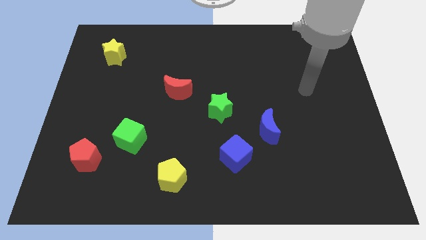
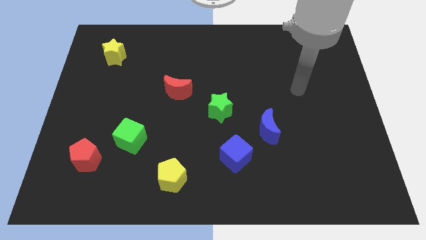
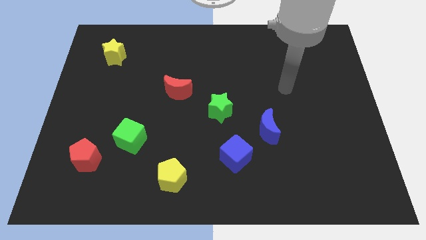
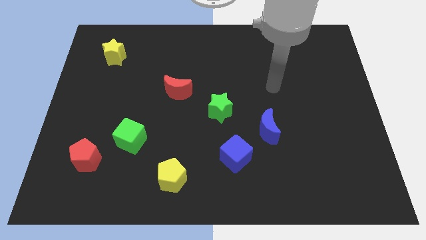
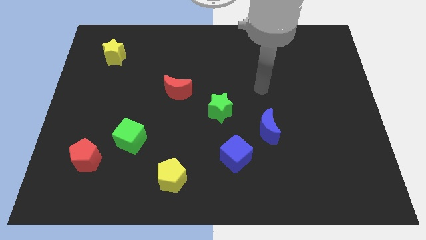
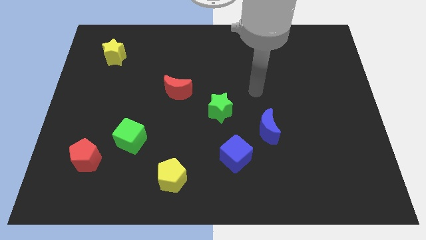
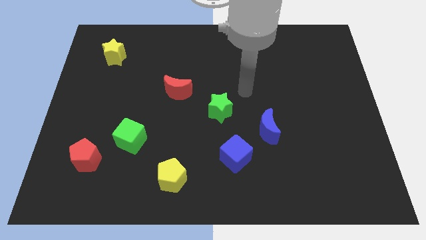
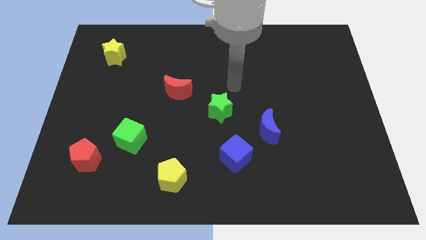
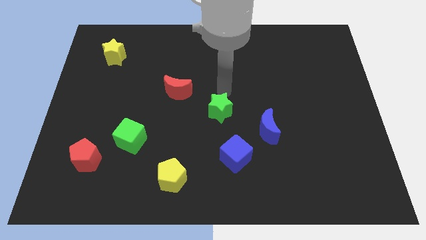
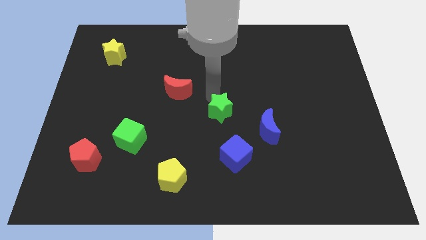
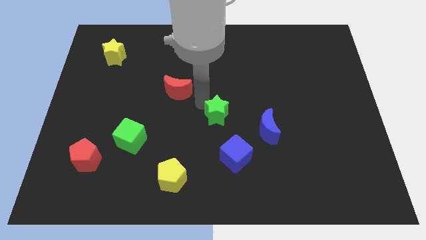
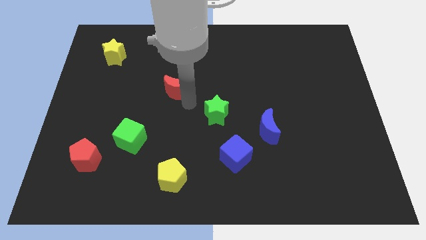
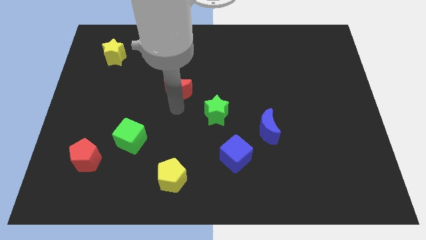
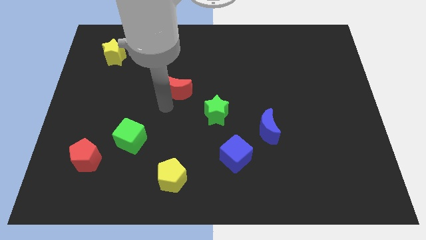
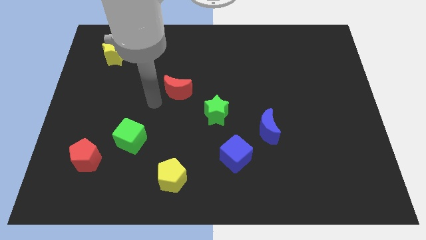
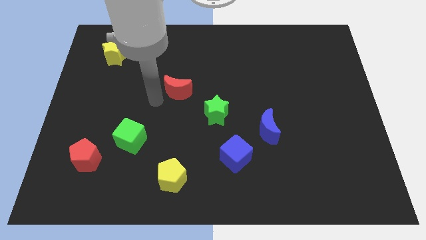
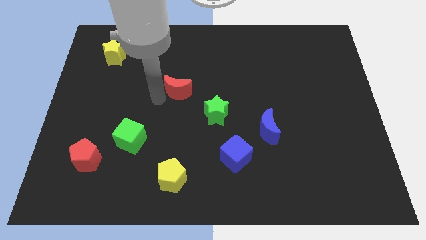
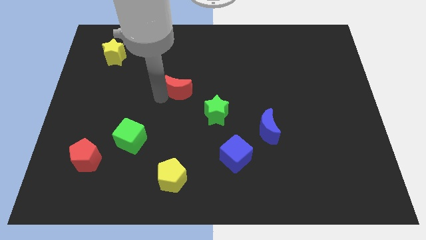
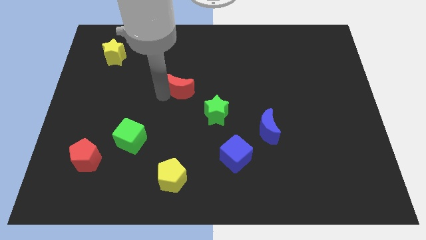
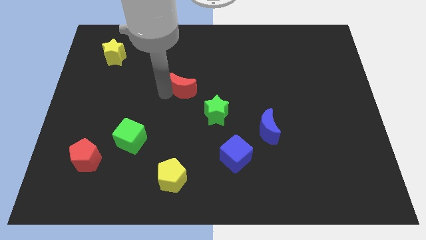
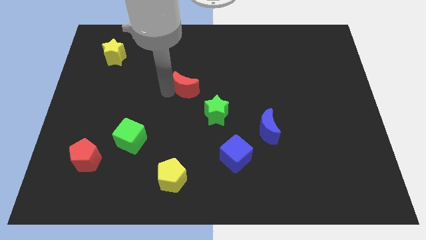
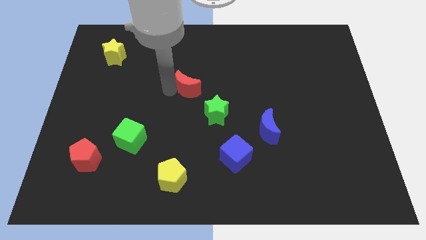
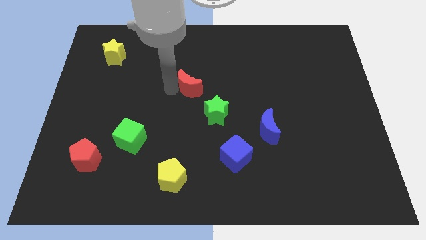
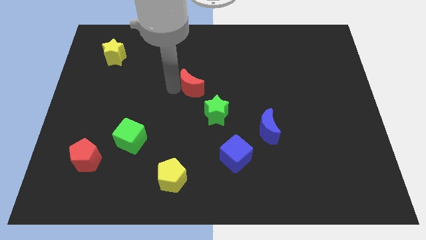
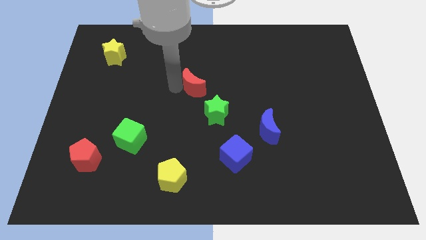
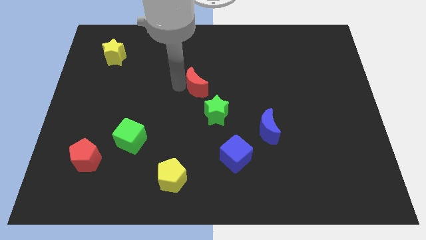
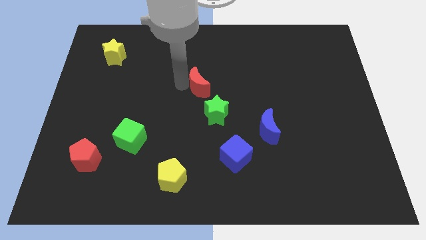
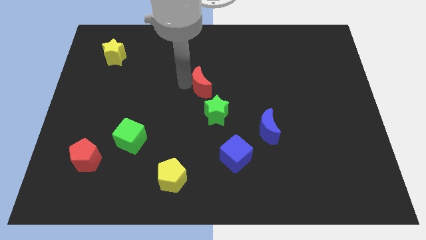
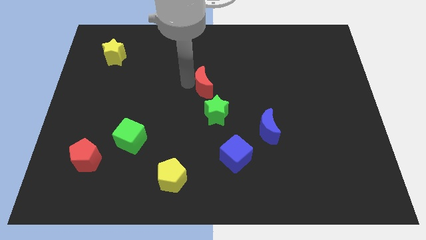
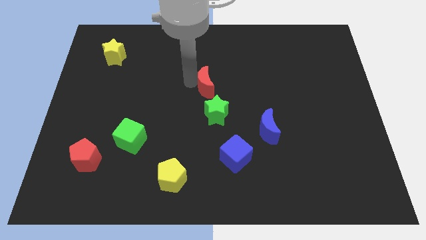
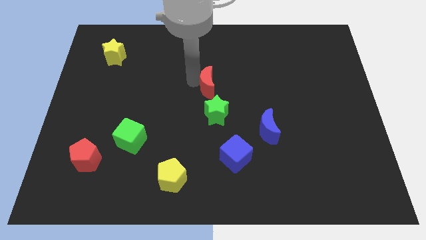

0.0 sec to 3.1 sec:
push the red moon right a little bit

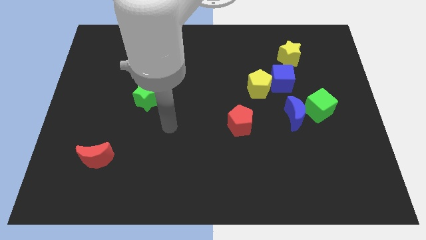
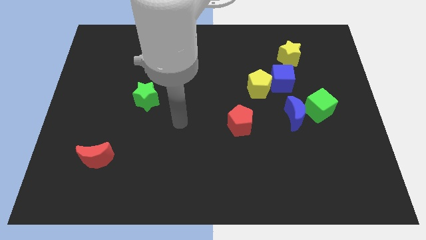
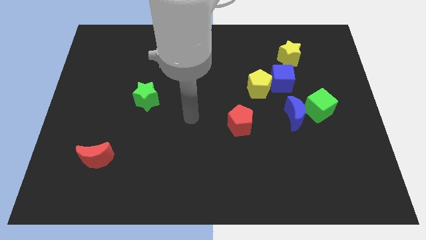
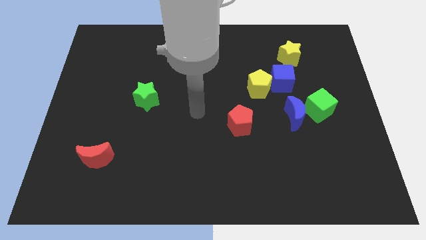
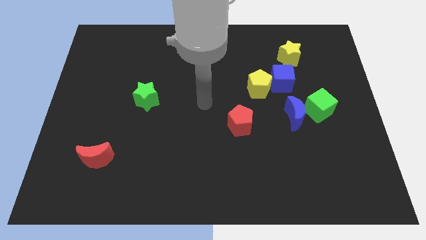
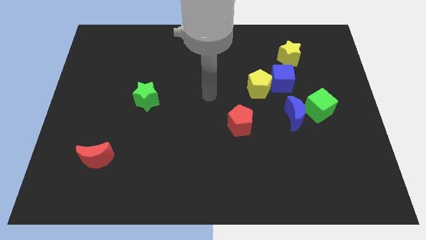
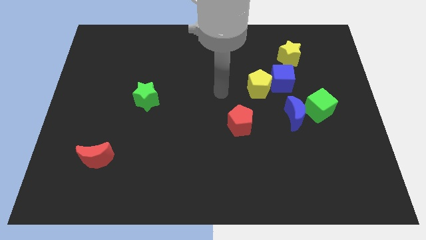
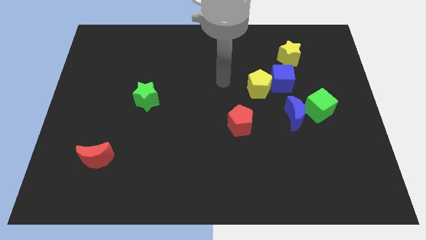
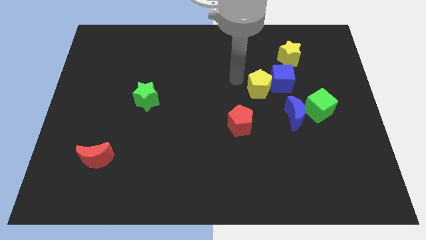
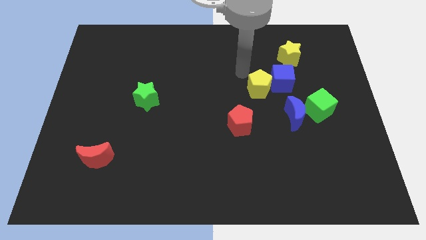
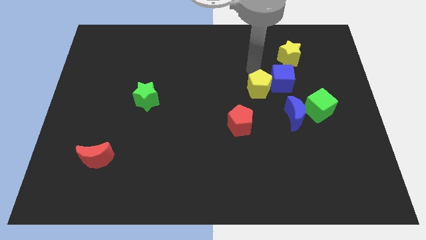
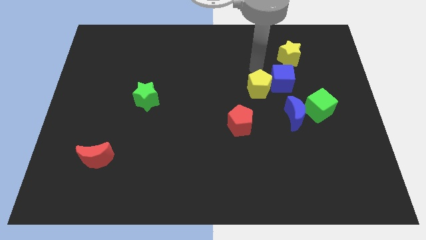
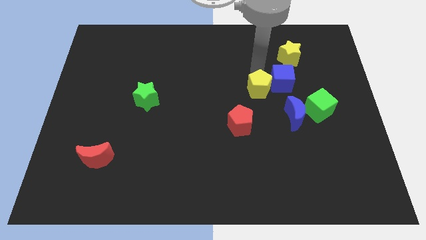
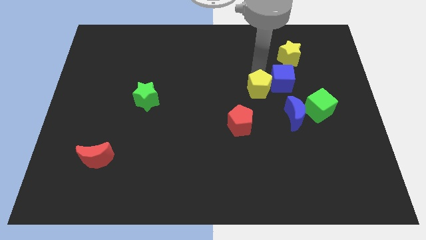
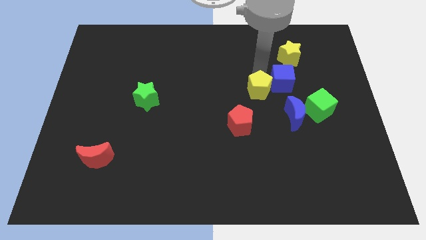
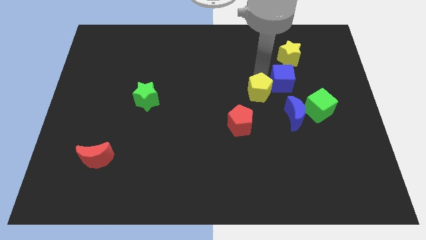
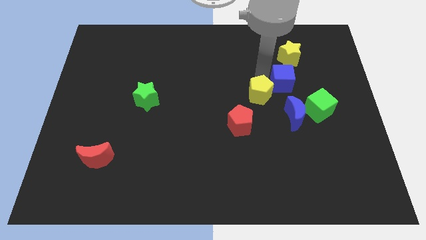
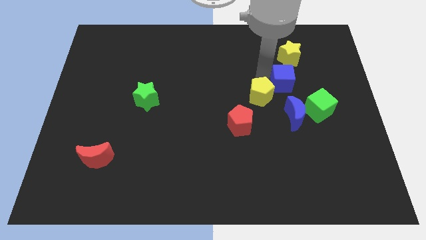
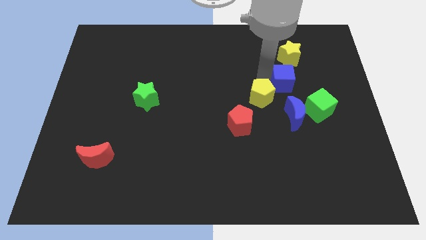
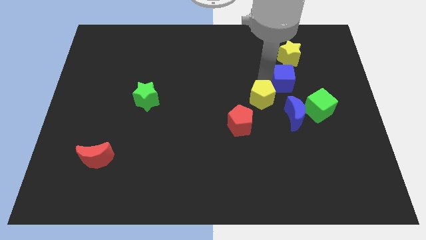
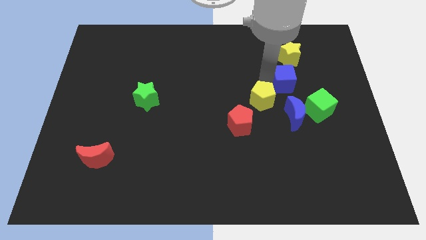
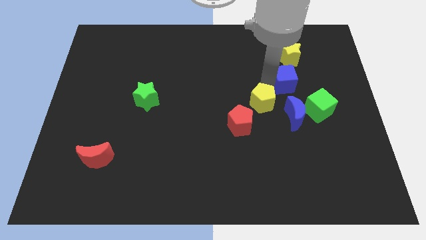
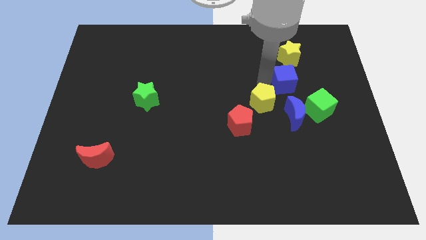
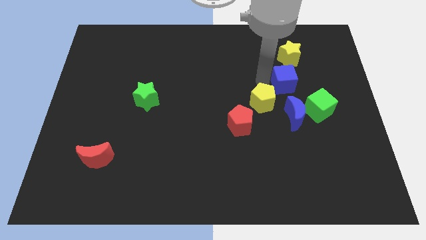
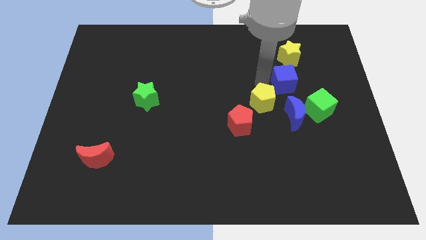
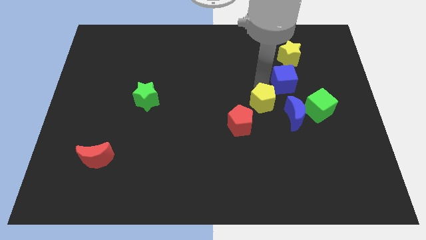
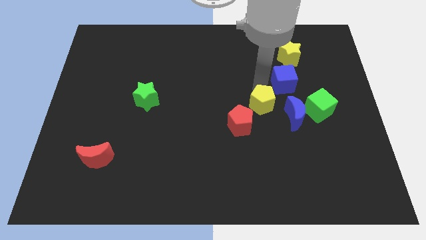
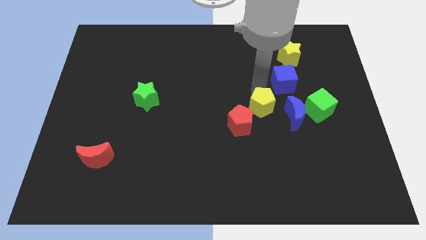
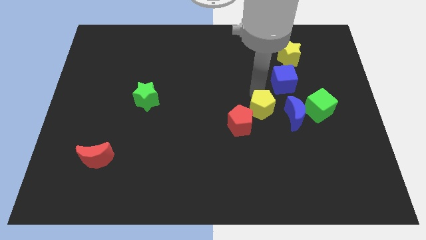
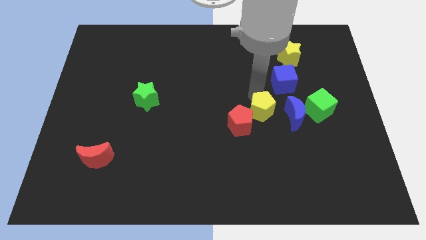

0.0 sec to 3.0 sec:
push the yellow pentagon slightly down

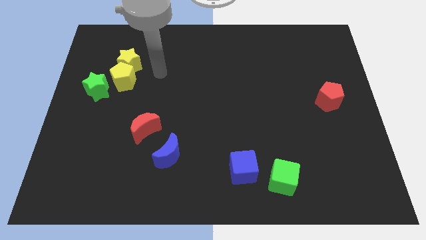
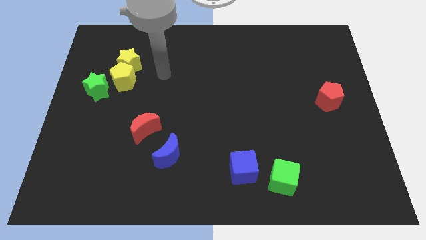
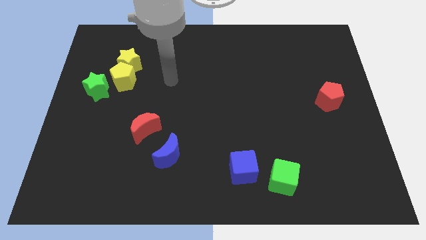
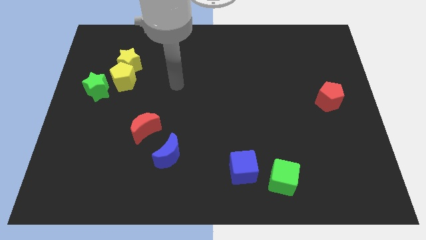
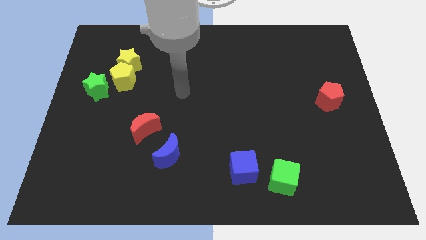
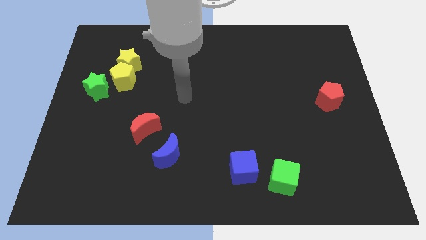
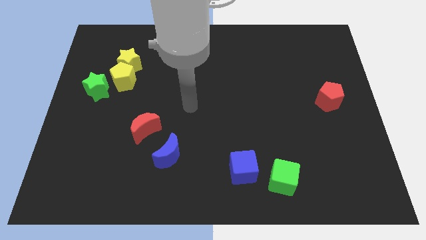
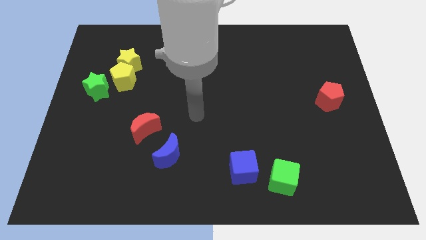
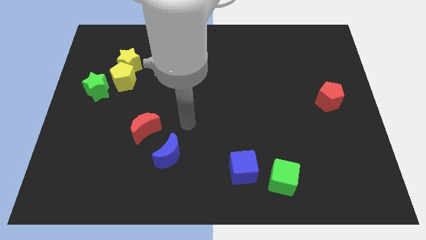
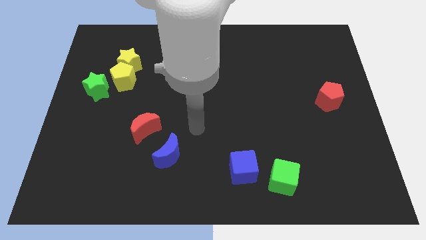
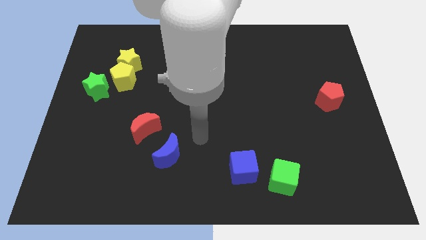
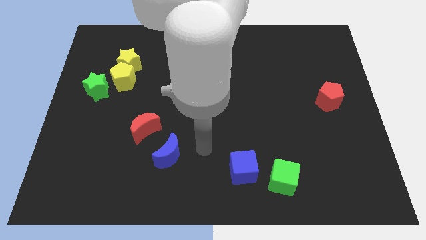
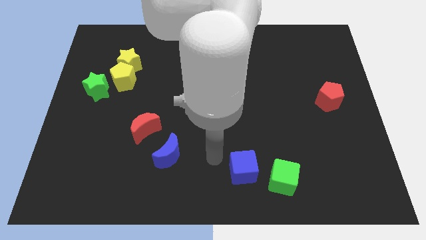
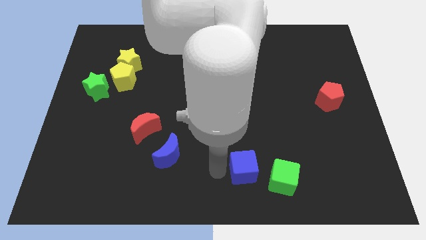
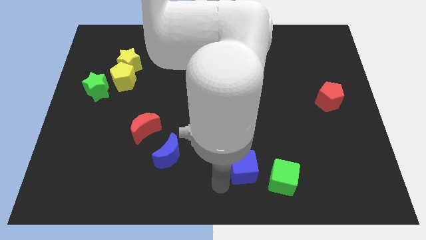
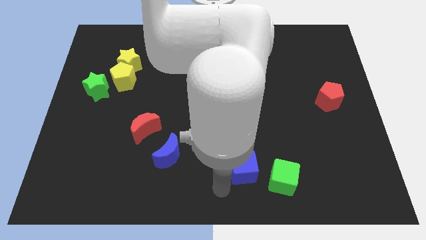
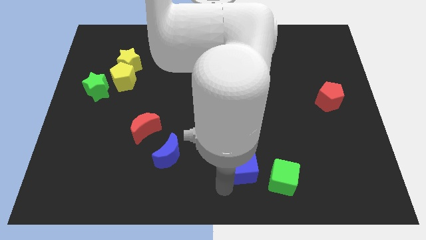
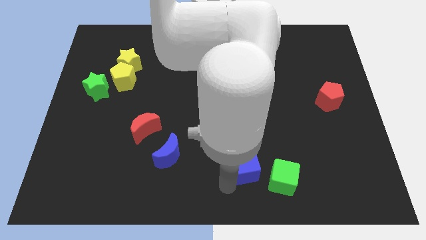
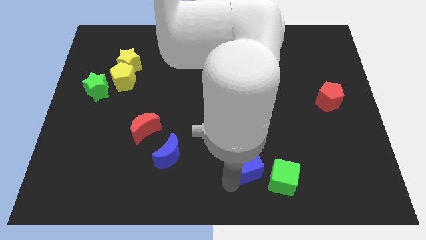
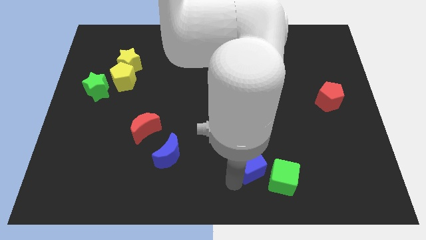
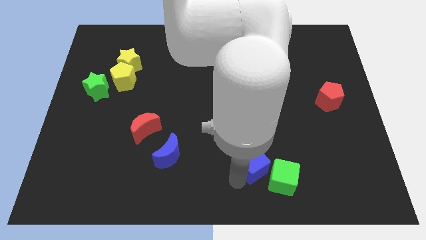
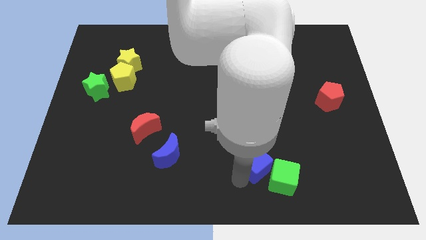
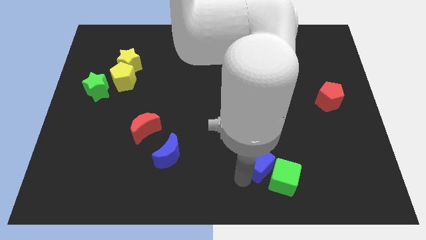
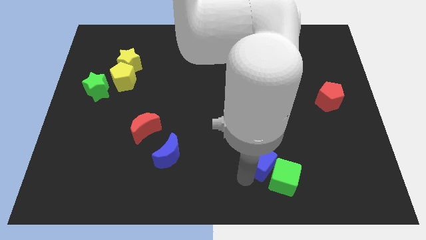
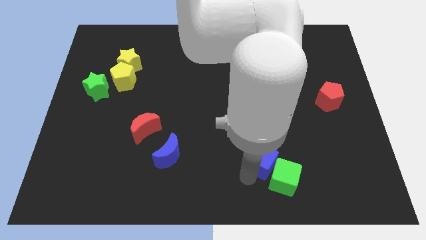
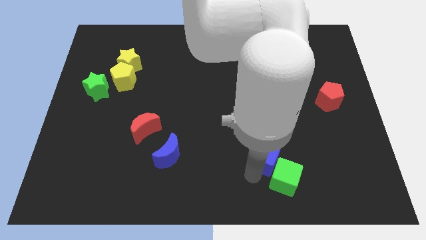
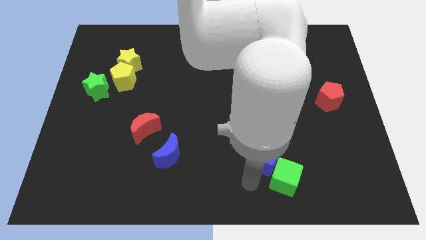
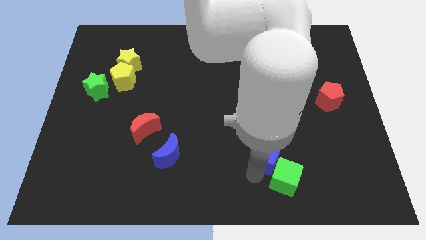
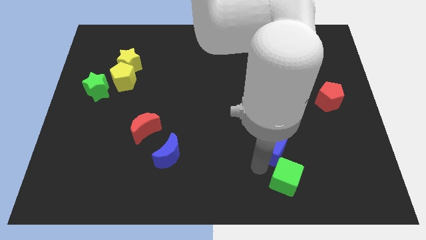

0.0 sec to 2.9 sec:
slightly push the blue cube upwards and then to the right
